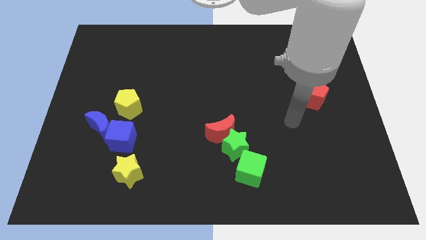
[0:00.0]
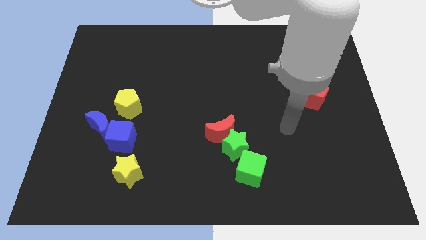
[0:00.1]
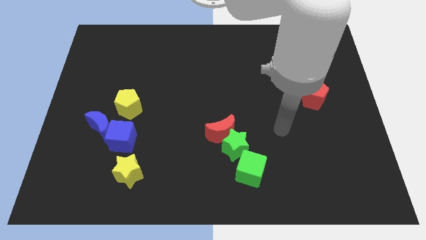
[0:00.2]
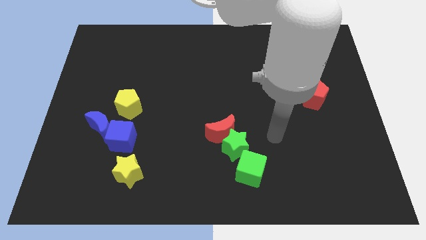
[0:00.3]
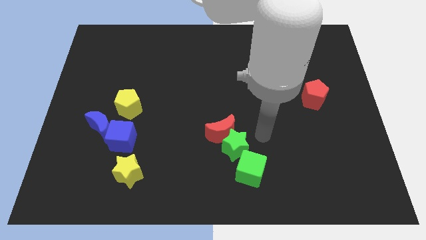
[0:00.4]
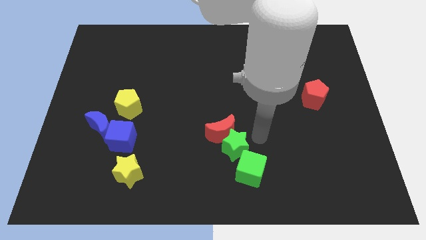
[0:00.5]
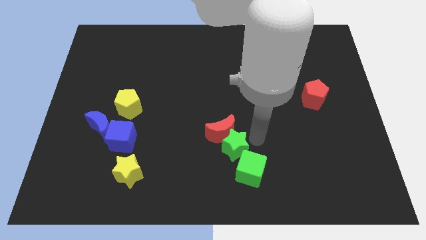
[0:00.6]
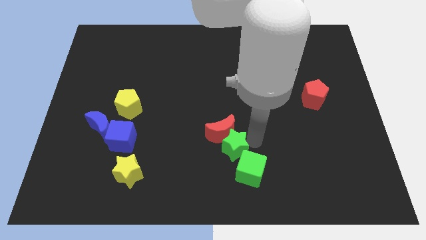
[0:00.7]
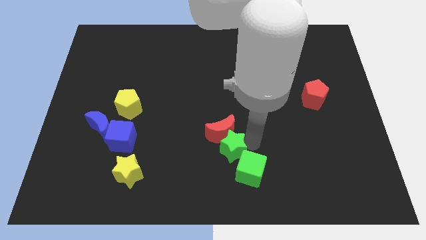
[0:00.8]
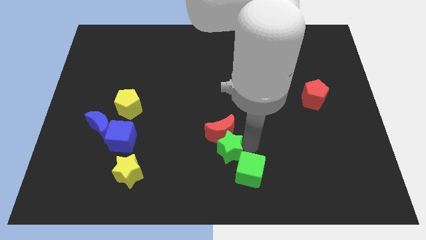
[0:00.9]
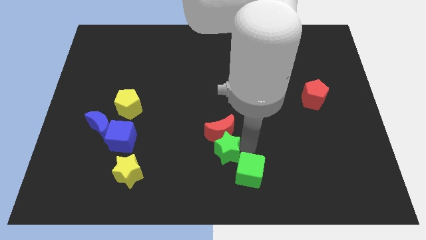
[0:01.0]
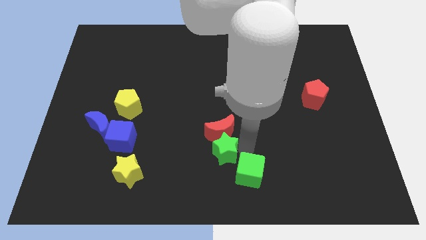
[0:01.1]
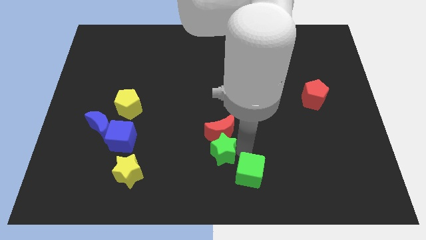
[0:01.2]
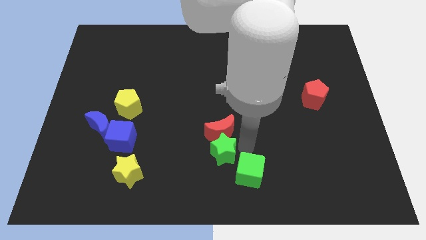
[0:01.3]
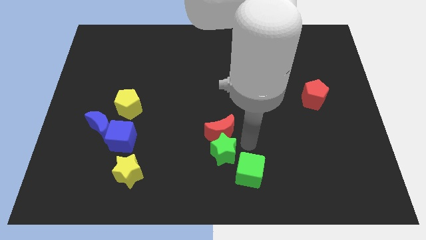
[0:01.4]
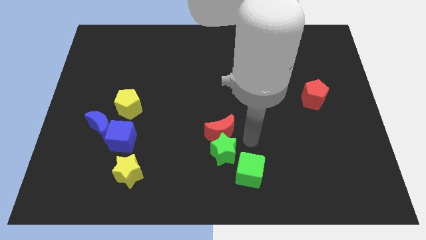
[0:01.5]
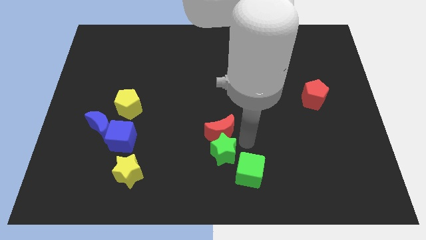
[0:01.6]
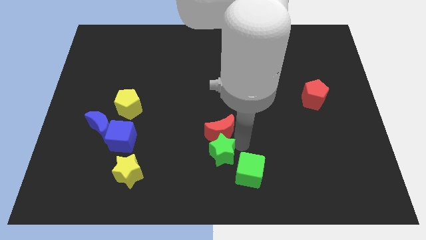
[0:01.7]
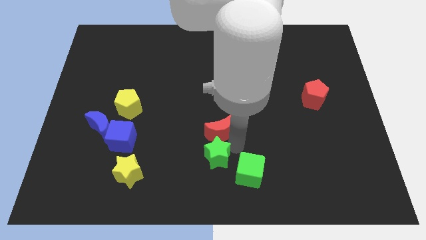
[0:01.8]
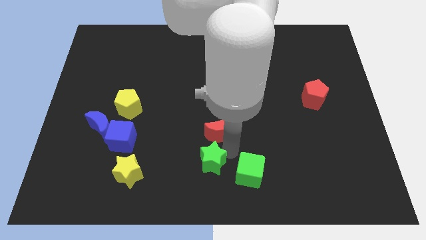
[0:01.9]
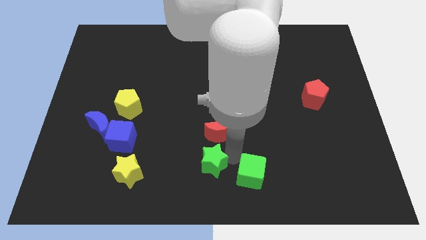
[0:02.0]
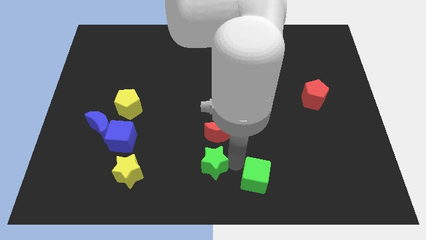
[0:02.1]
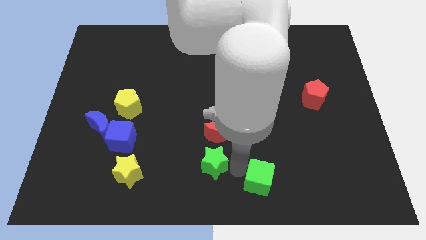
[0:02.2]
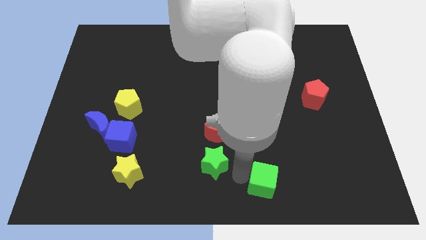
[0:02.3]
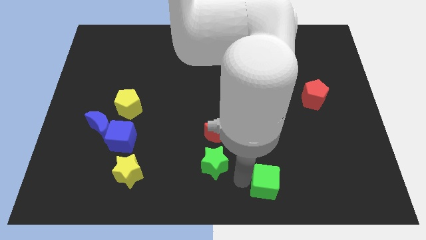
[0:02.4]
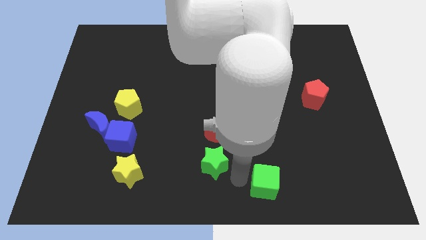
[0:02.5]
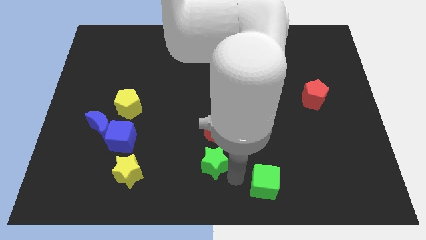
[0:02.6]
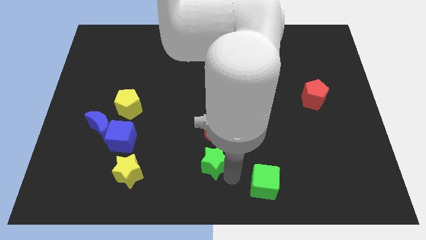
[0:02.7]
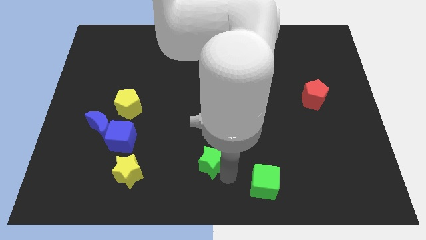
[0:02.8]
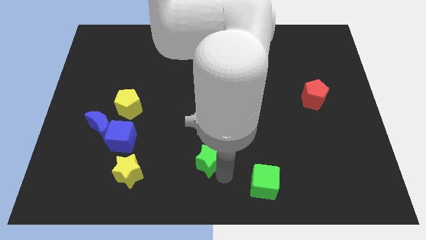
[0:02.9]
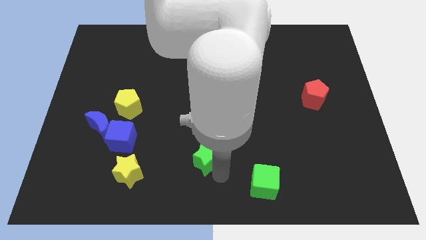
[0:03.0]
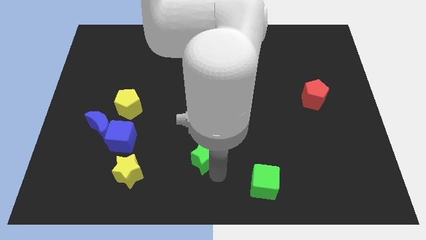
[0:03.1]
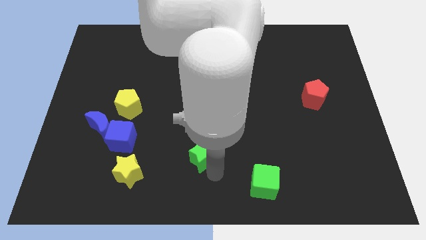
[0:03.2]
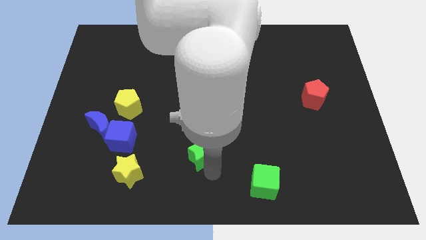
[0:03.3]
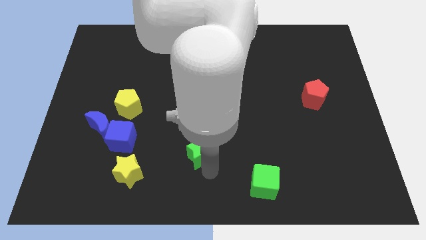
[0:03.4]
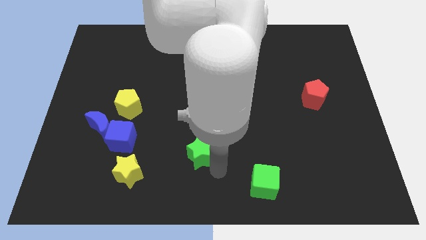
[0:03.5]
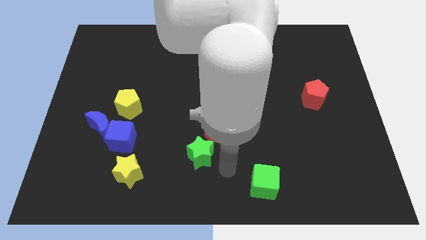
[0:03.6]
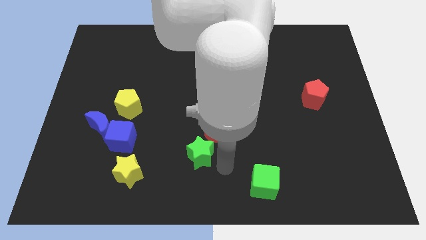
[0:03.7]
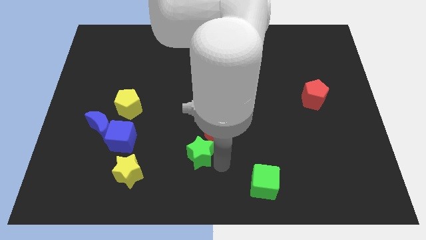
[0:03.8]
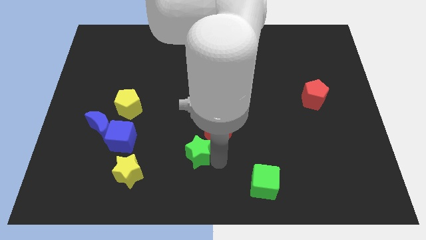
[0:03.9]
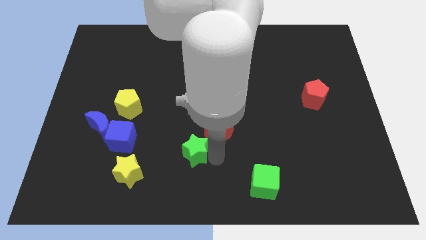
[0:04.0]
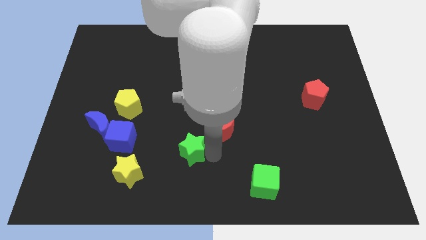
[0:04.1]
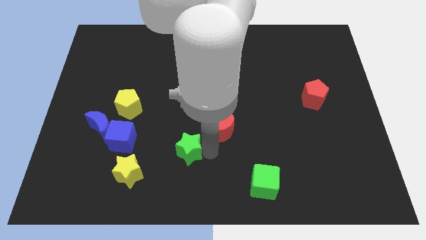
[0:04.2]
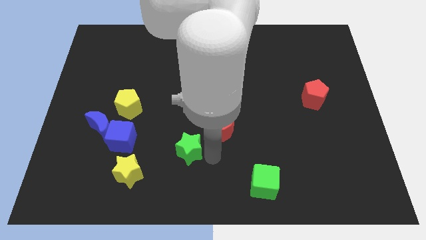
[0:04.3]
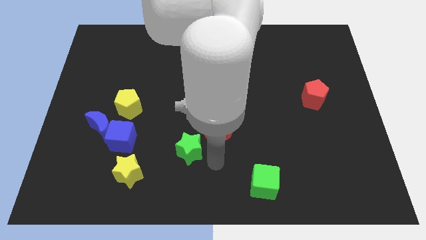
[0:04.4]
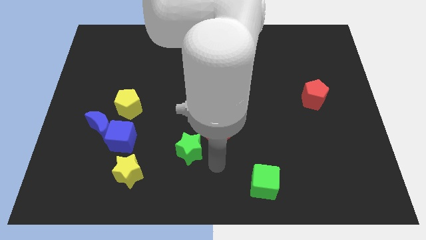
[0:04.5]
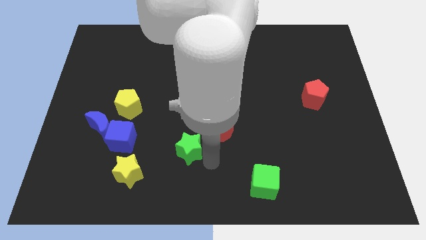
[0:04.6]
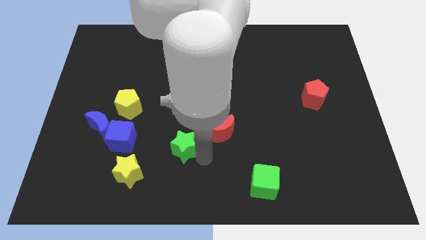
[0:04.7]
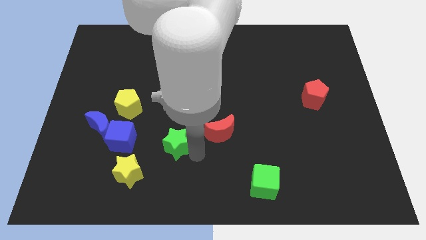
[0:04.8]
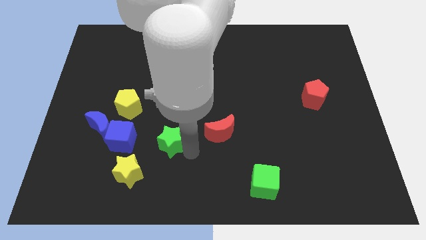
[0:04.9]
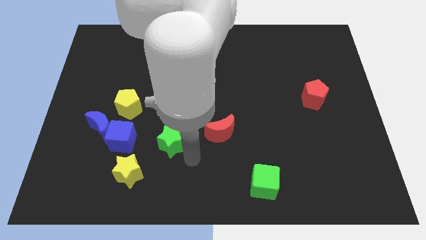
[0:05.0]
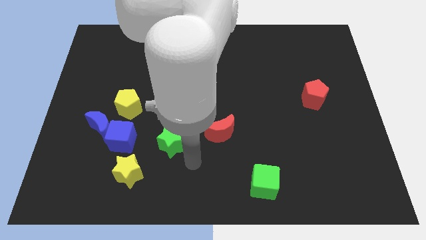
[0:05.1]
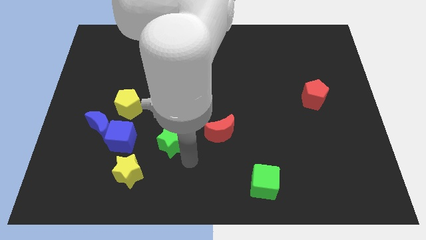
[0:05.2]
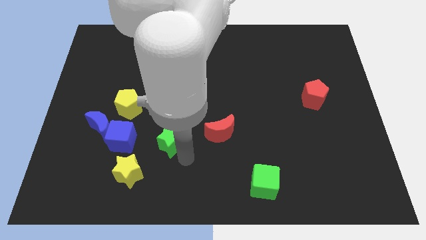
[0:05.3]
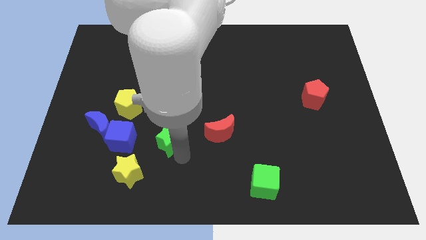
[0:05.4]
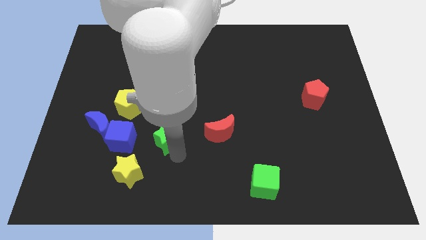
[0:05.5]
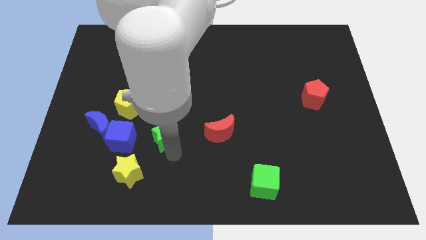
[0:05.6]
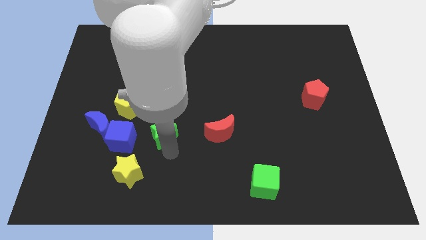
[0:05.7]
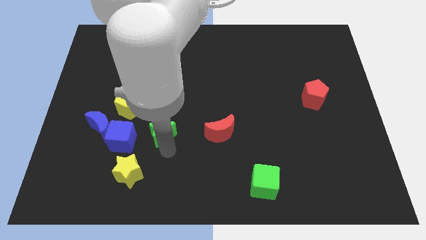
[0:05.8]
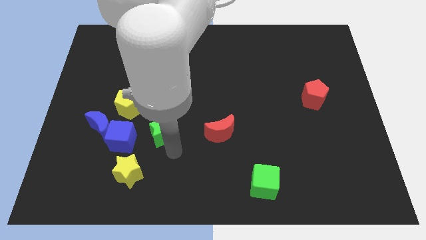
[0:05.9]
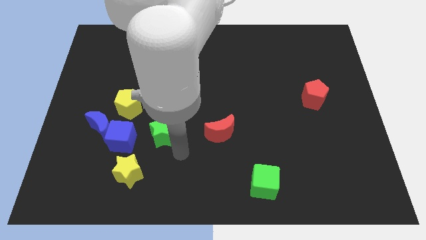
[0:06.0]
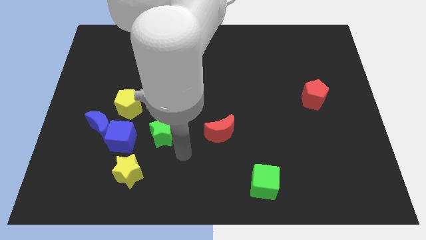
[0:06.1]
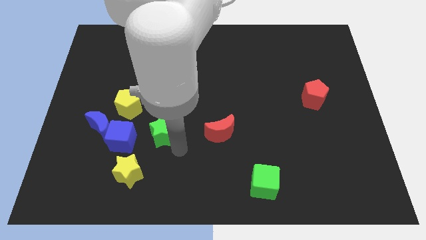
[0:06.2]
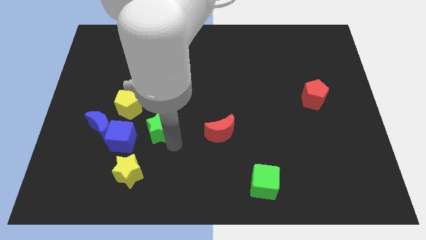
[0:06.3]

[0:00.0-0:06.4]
push the green star to the top right of the blue cube
